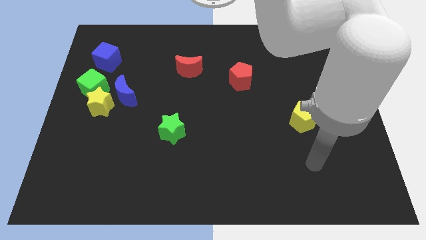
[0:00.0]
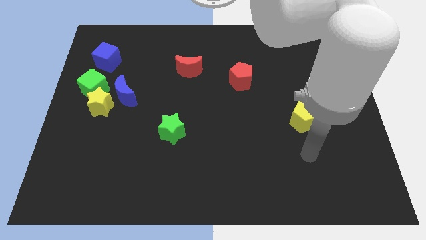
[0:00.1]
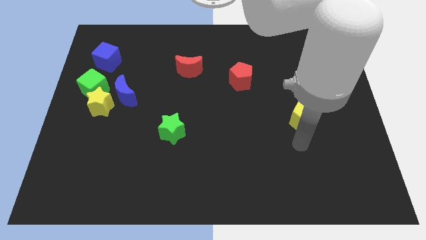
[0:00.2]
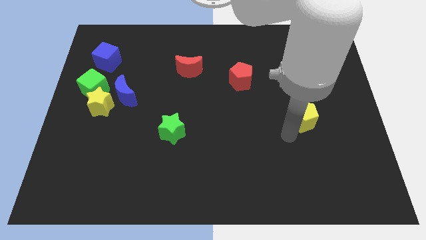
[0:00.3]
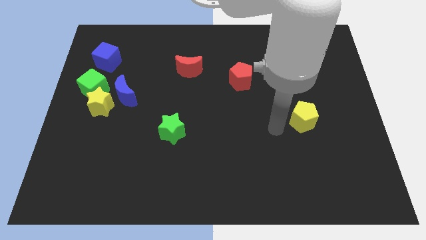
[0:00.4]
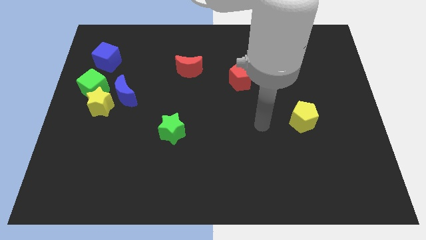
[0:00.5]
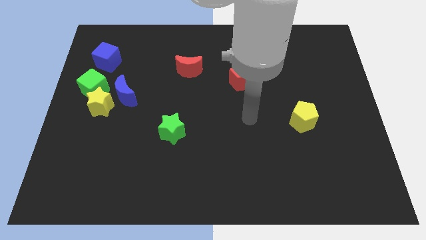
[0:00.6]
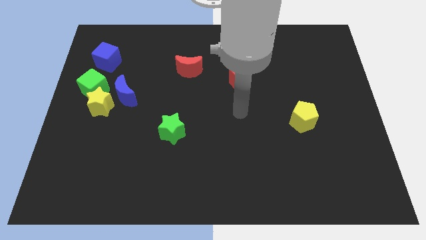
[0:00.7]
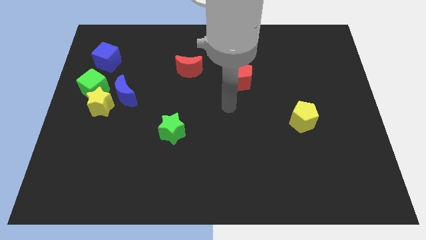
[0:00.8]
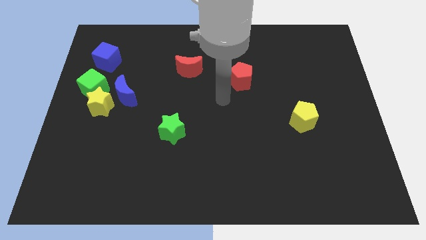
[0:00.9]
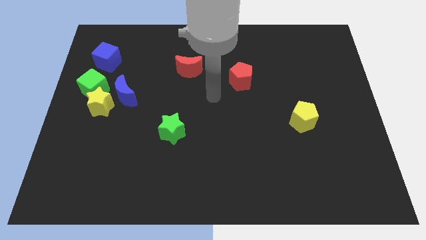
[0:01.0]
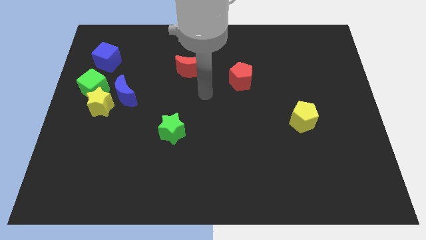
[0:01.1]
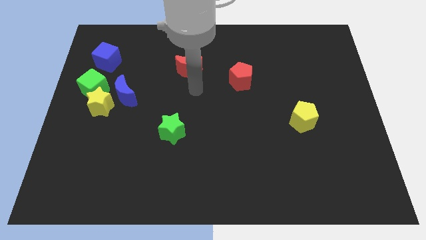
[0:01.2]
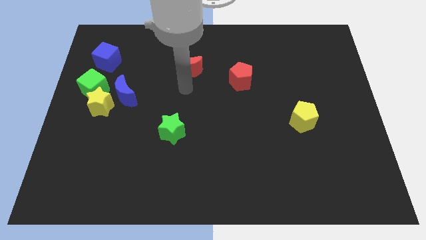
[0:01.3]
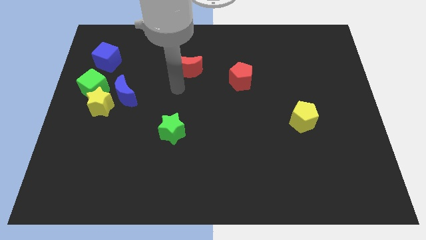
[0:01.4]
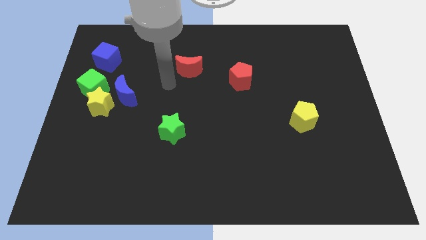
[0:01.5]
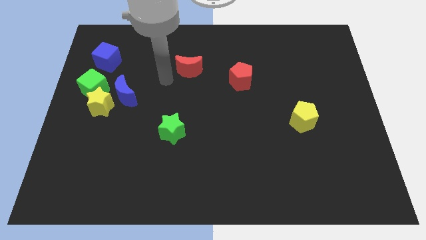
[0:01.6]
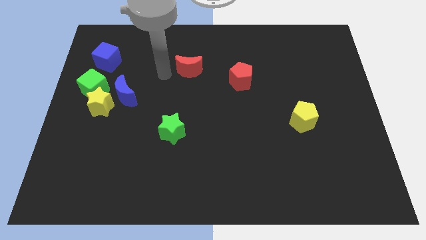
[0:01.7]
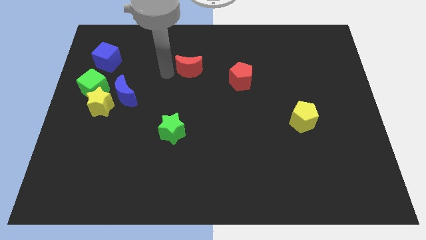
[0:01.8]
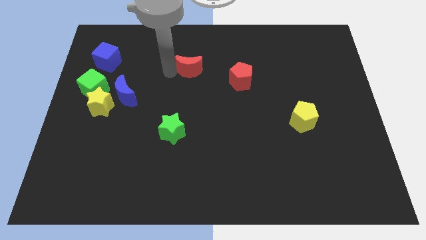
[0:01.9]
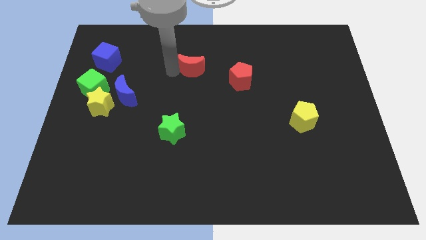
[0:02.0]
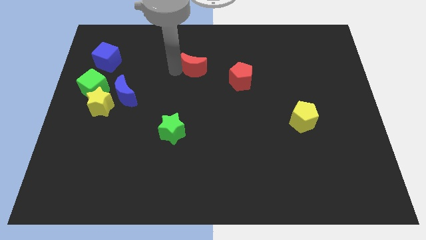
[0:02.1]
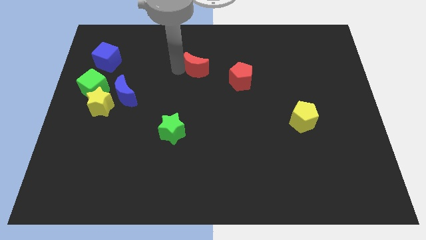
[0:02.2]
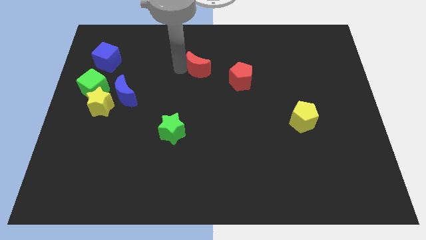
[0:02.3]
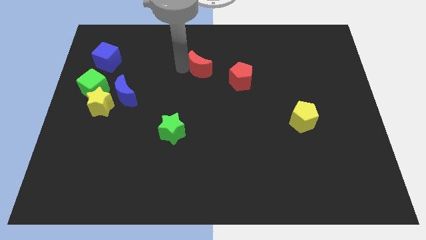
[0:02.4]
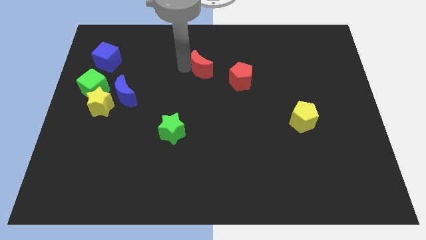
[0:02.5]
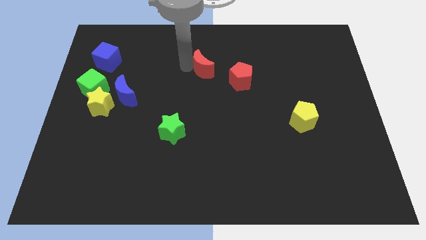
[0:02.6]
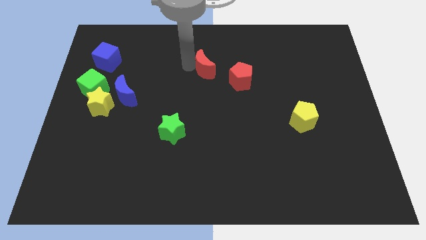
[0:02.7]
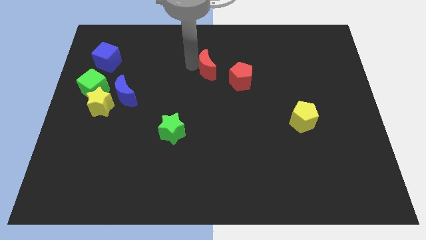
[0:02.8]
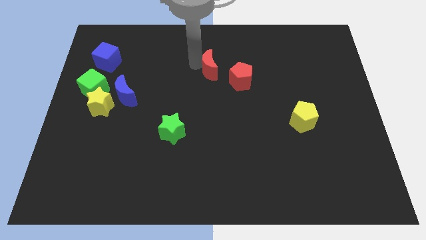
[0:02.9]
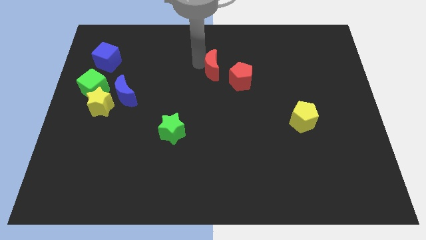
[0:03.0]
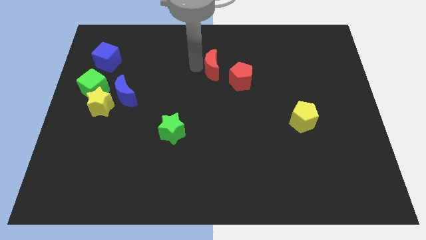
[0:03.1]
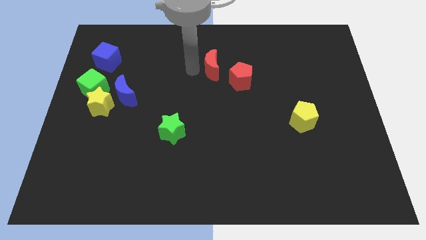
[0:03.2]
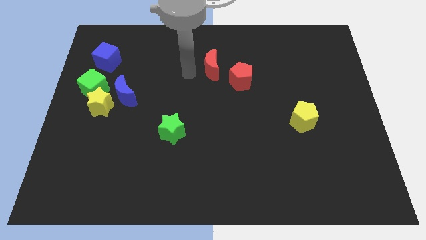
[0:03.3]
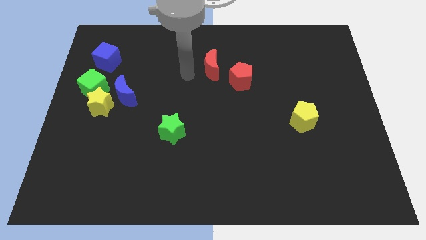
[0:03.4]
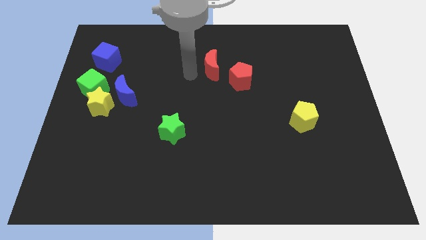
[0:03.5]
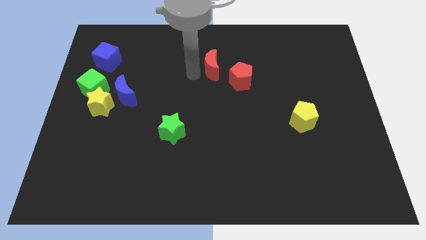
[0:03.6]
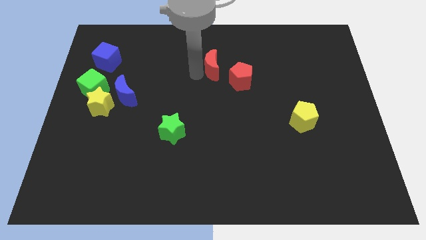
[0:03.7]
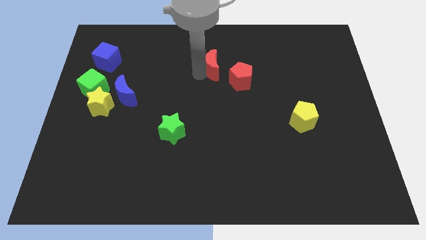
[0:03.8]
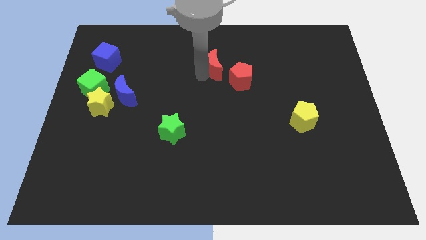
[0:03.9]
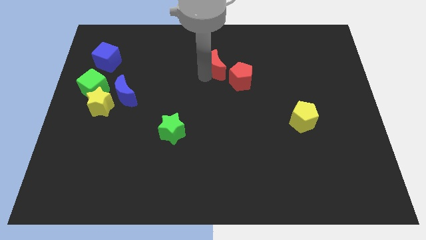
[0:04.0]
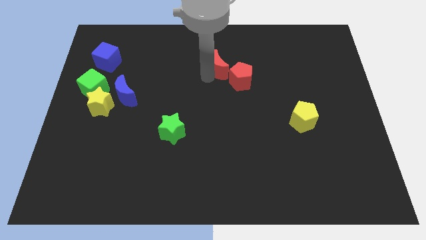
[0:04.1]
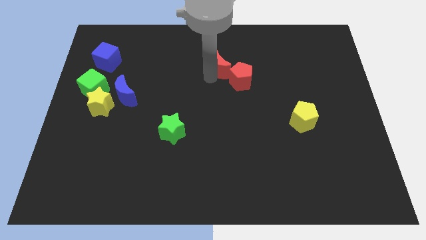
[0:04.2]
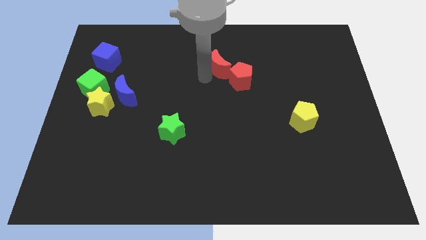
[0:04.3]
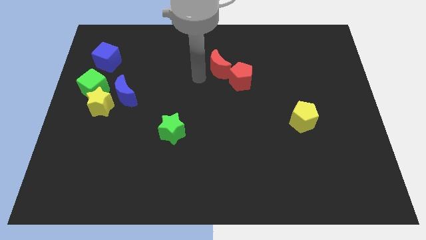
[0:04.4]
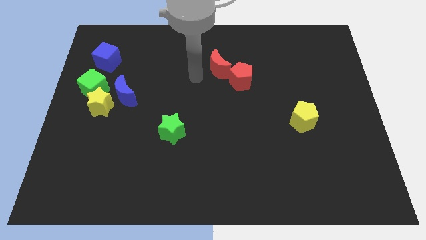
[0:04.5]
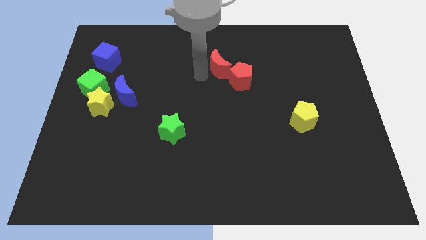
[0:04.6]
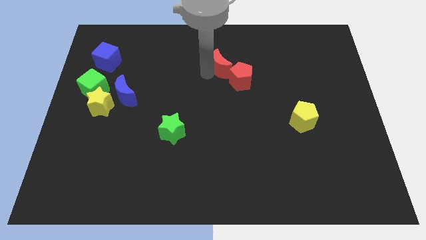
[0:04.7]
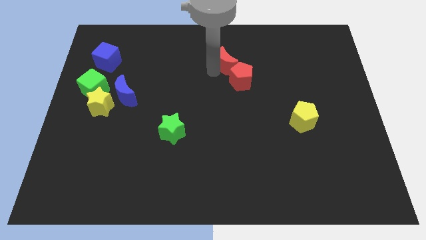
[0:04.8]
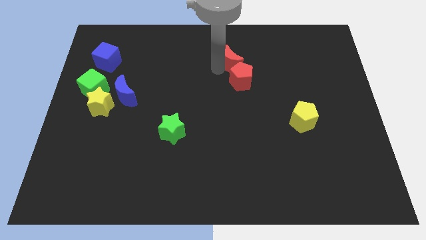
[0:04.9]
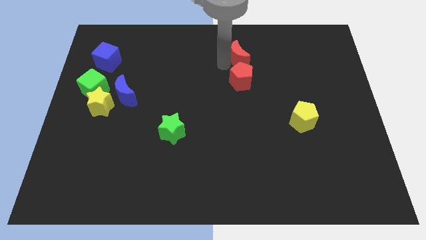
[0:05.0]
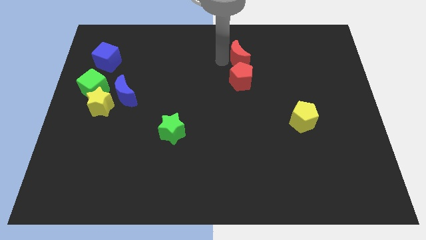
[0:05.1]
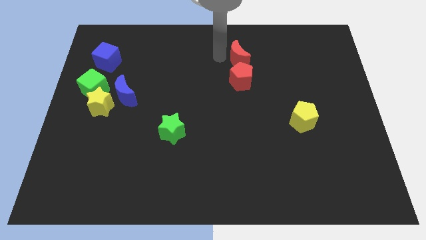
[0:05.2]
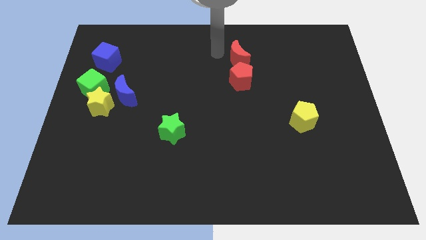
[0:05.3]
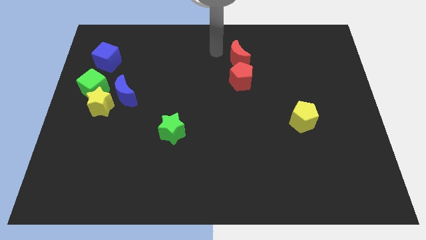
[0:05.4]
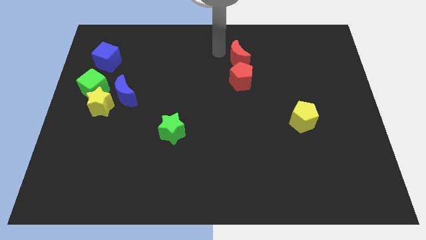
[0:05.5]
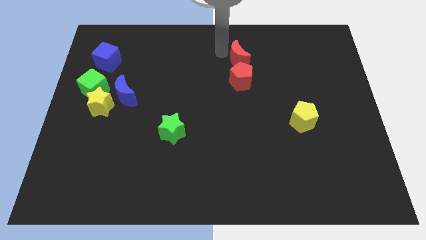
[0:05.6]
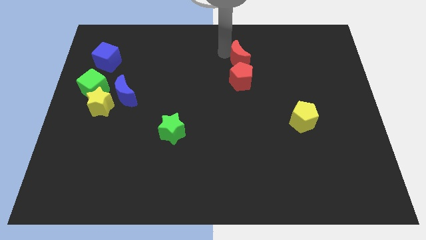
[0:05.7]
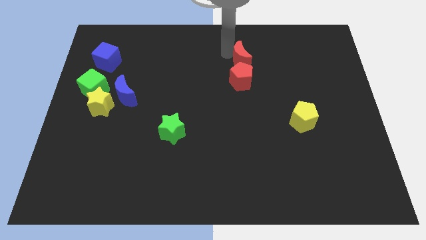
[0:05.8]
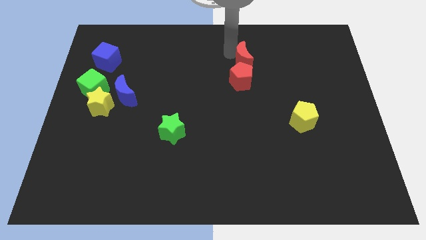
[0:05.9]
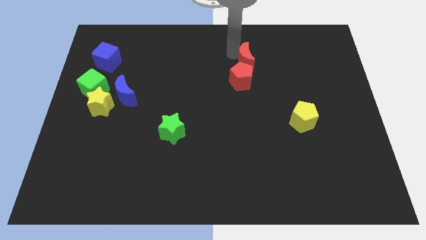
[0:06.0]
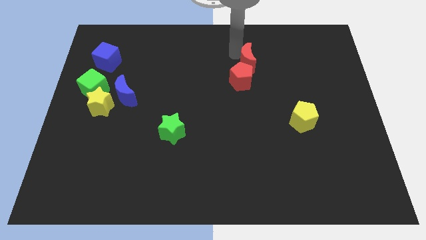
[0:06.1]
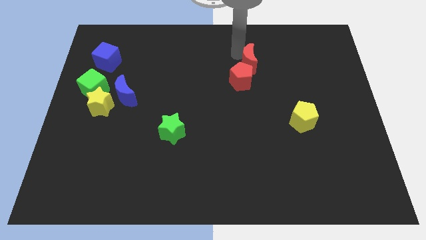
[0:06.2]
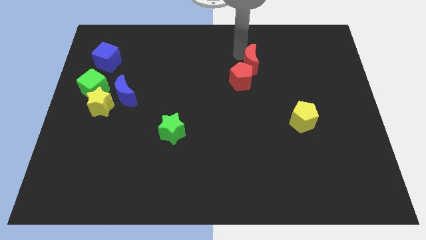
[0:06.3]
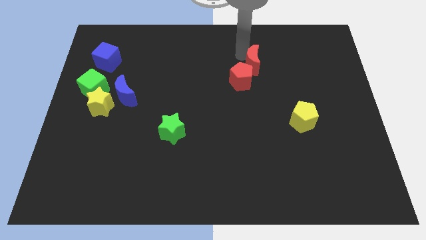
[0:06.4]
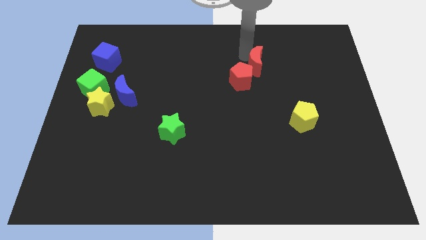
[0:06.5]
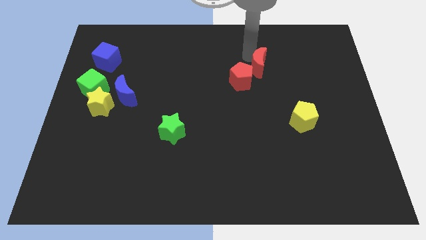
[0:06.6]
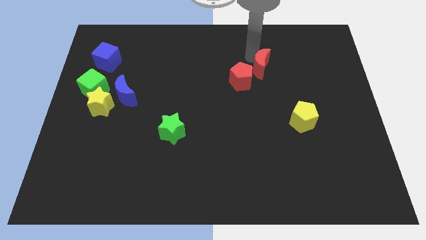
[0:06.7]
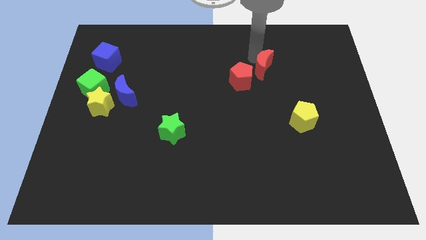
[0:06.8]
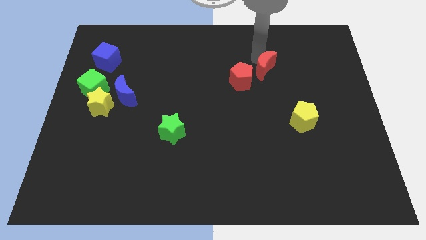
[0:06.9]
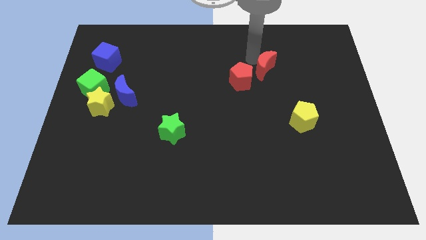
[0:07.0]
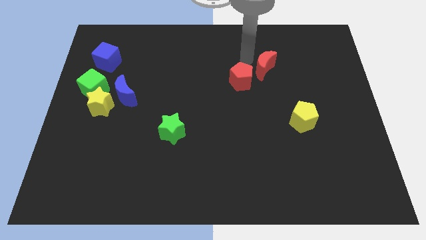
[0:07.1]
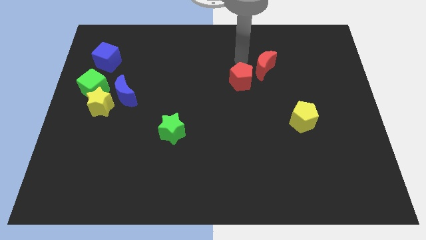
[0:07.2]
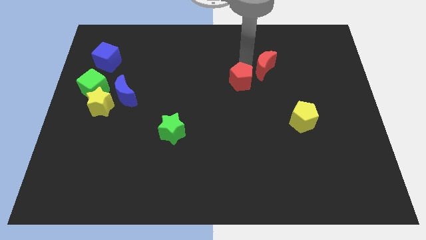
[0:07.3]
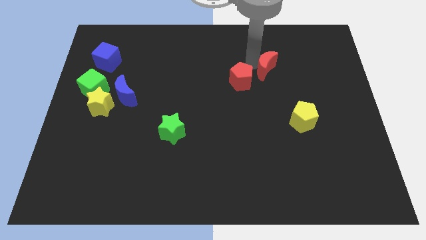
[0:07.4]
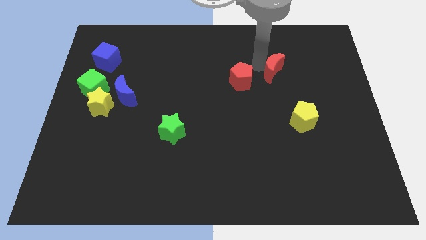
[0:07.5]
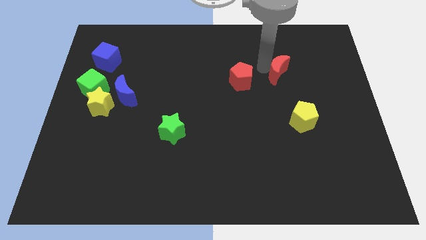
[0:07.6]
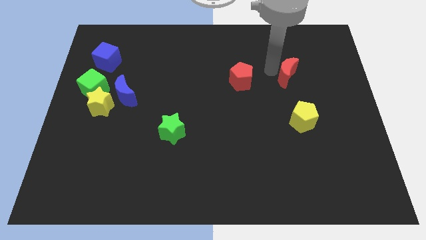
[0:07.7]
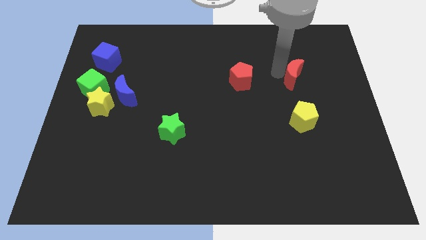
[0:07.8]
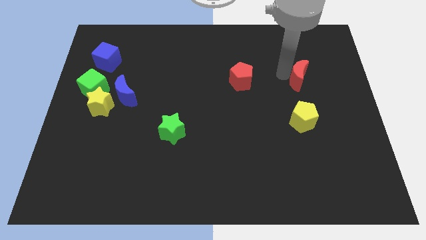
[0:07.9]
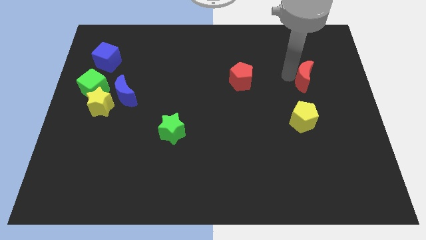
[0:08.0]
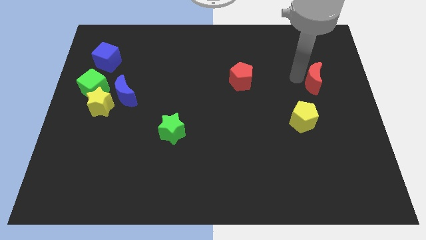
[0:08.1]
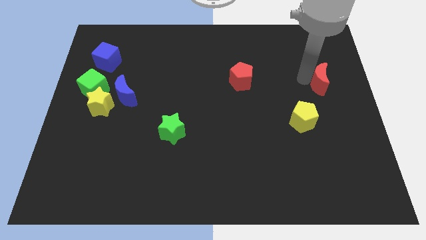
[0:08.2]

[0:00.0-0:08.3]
put the red moon to the center right
